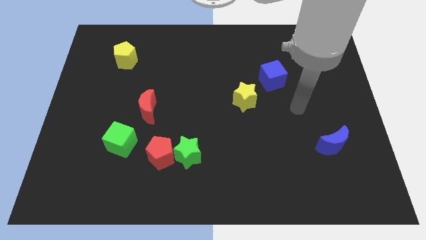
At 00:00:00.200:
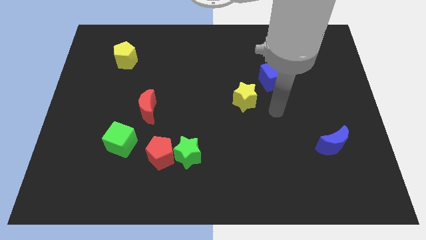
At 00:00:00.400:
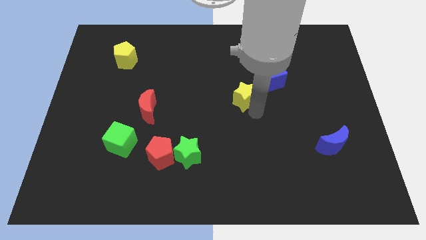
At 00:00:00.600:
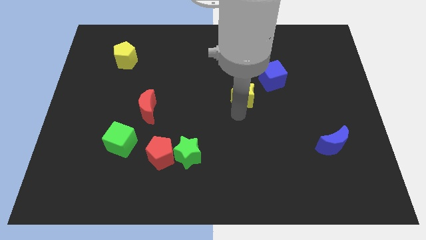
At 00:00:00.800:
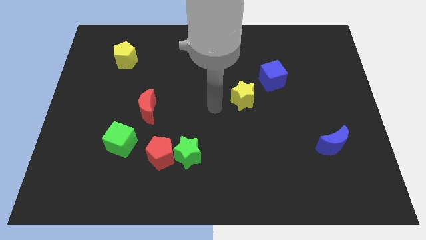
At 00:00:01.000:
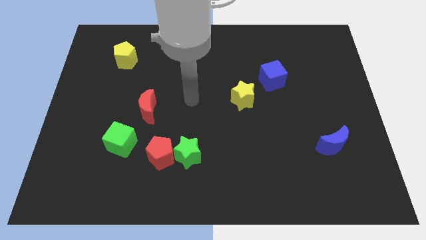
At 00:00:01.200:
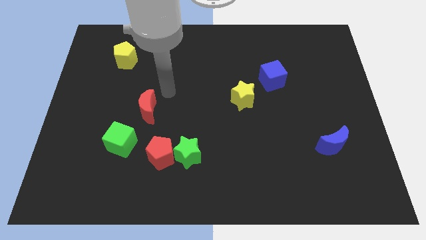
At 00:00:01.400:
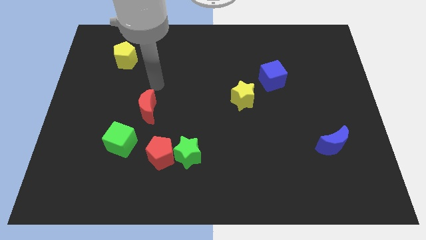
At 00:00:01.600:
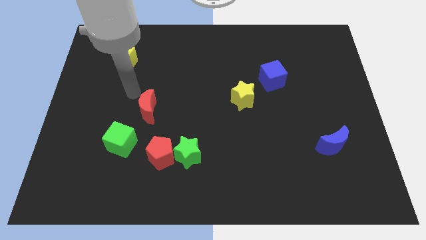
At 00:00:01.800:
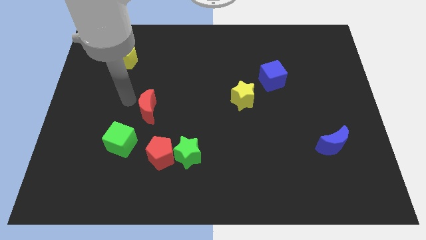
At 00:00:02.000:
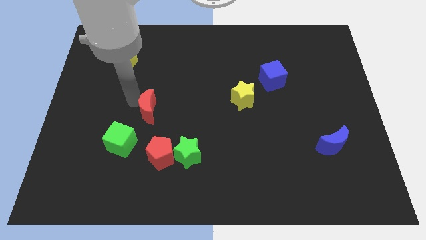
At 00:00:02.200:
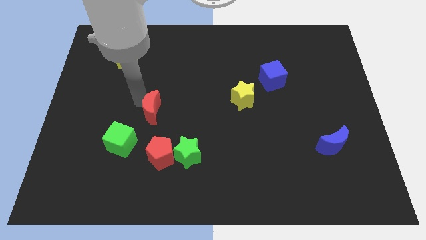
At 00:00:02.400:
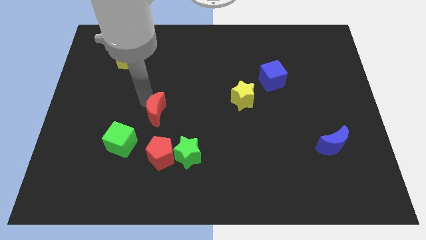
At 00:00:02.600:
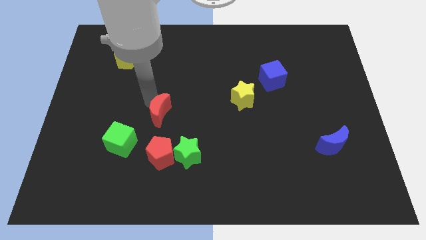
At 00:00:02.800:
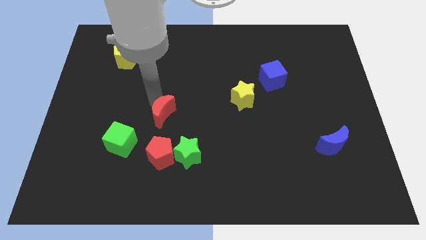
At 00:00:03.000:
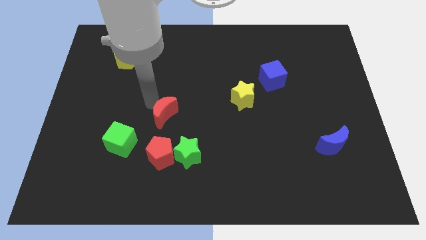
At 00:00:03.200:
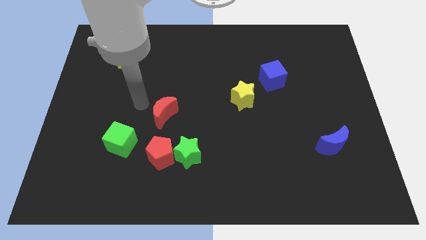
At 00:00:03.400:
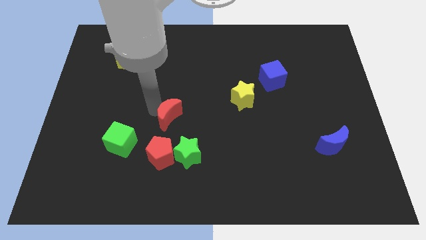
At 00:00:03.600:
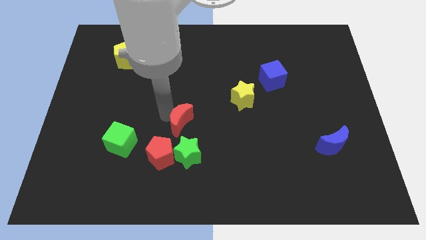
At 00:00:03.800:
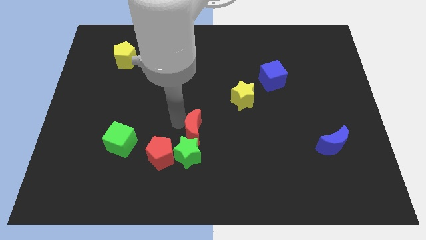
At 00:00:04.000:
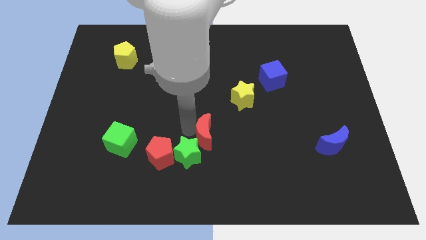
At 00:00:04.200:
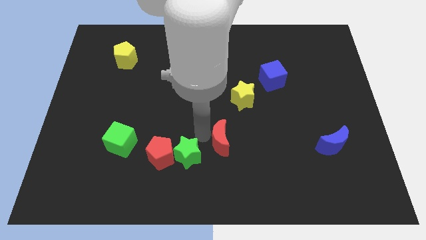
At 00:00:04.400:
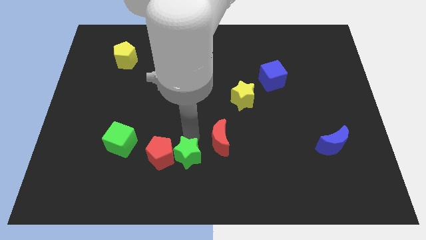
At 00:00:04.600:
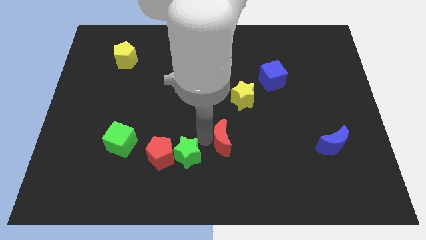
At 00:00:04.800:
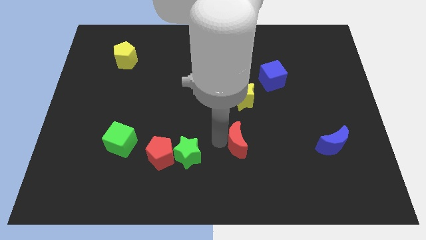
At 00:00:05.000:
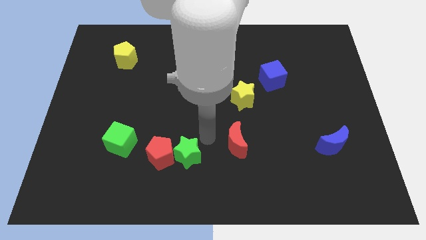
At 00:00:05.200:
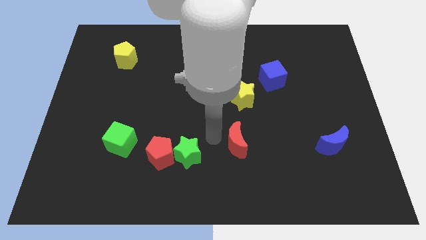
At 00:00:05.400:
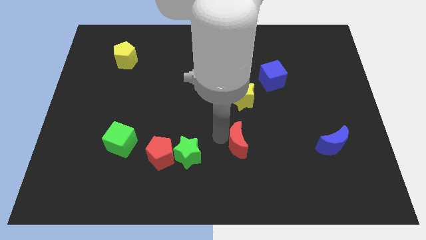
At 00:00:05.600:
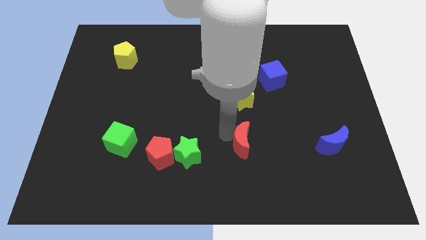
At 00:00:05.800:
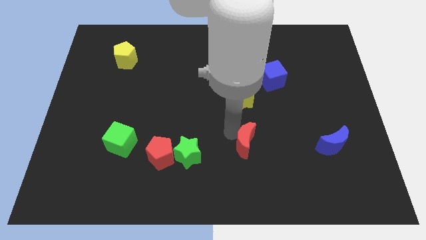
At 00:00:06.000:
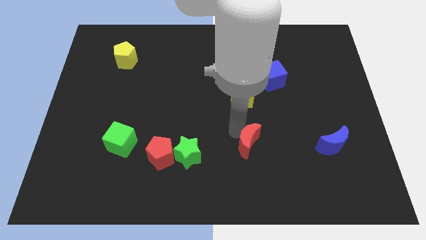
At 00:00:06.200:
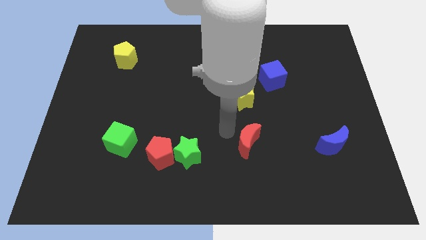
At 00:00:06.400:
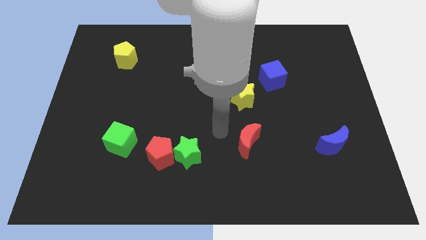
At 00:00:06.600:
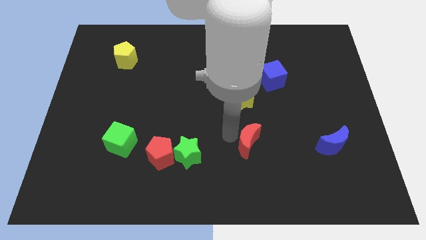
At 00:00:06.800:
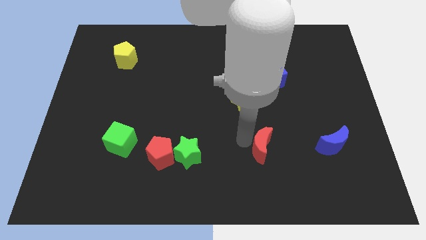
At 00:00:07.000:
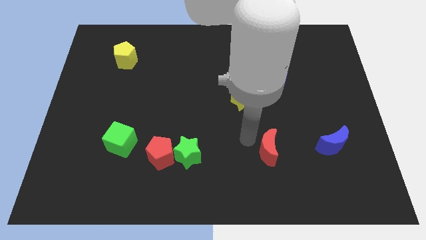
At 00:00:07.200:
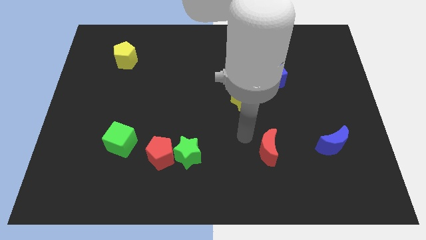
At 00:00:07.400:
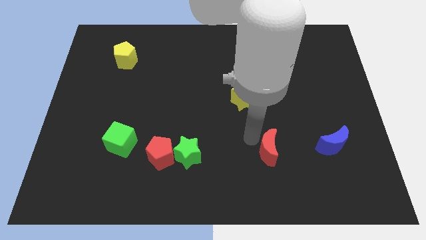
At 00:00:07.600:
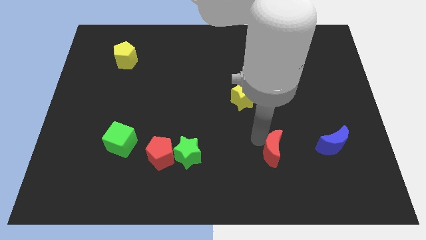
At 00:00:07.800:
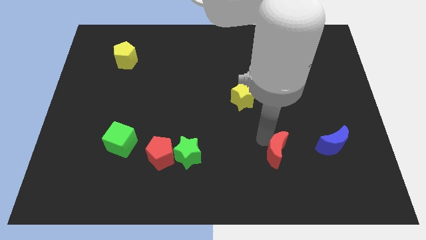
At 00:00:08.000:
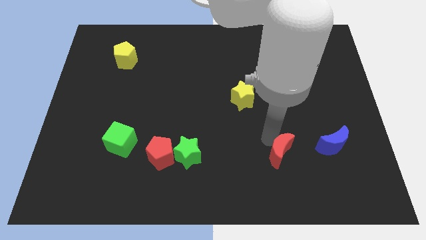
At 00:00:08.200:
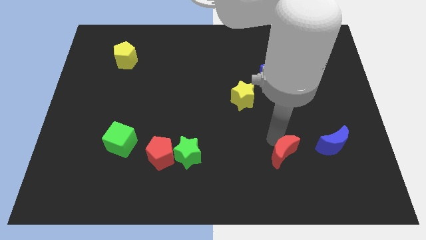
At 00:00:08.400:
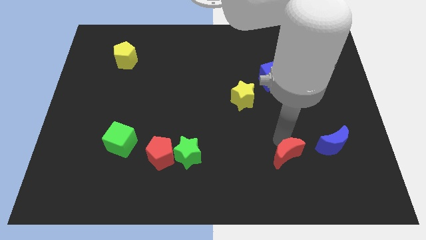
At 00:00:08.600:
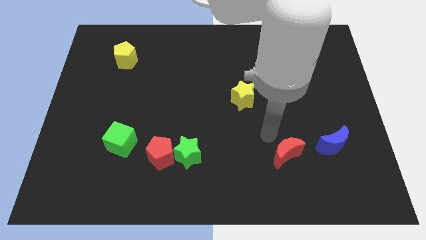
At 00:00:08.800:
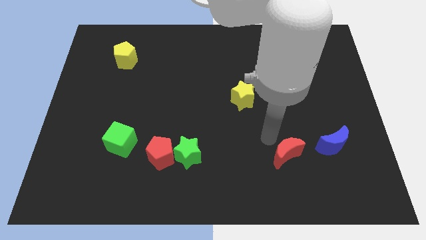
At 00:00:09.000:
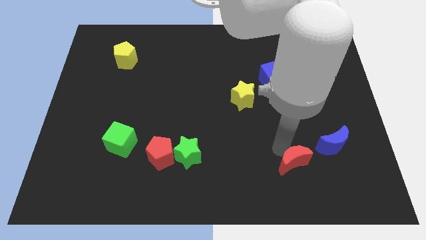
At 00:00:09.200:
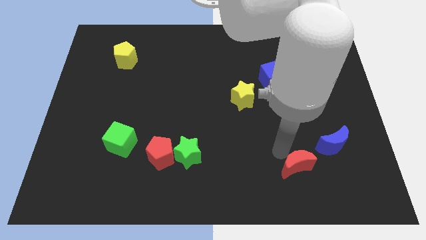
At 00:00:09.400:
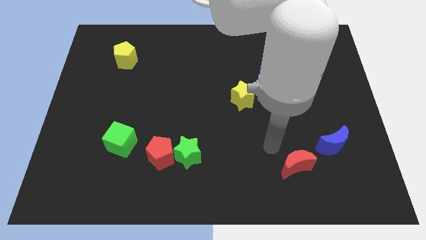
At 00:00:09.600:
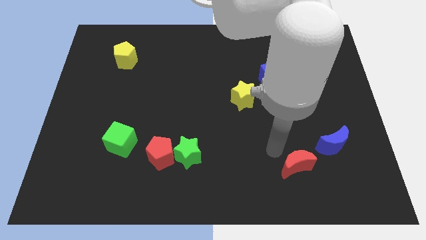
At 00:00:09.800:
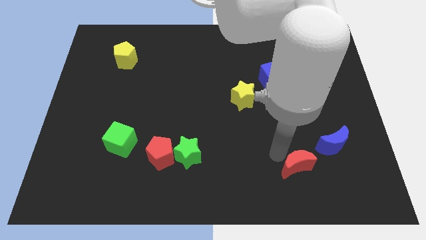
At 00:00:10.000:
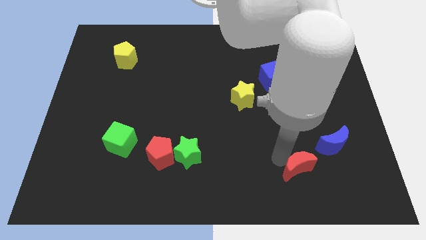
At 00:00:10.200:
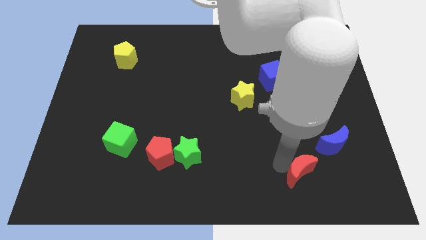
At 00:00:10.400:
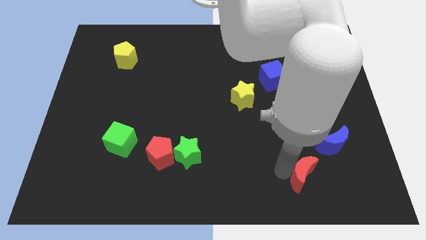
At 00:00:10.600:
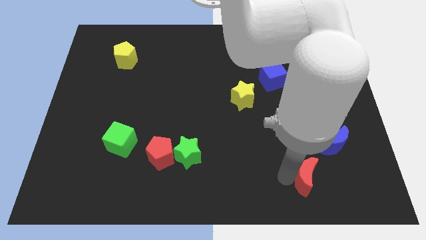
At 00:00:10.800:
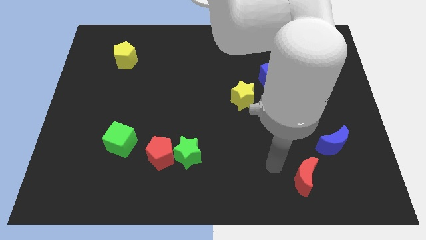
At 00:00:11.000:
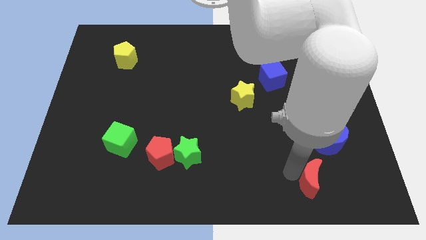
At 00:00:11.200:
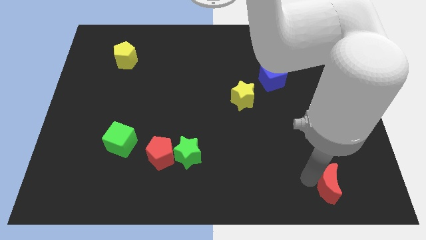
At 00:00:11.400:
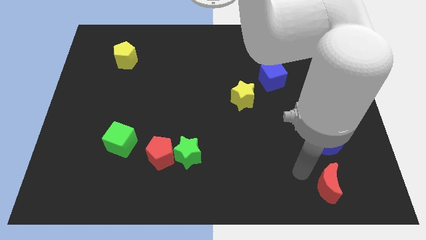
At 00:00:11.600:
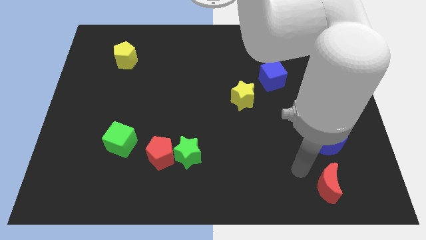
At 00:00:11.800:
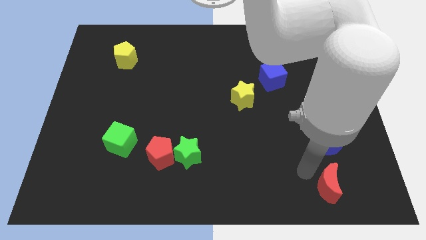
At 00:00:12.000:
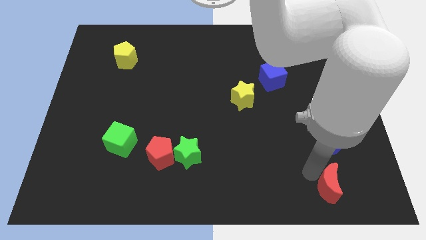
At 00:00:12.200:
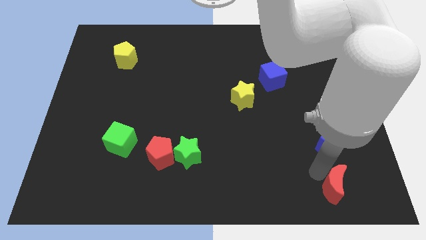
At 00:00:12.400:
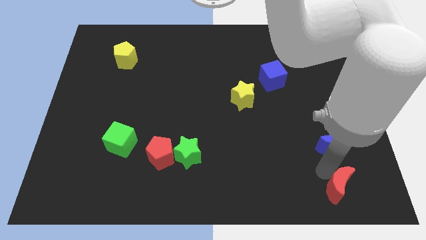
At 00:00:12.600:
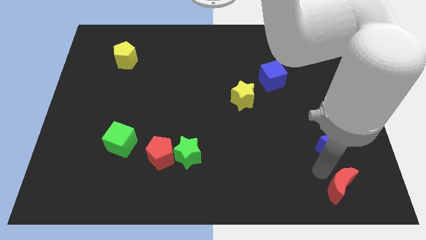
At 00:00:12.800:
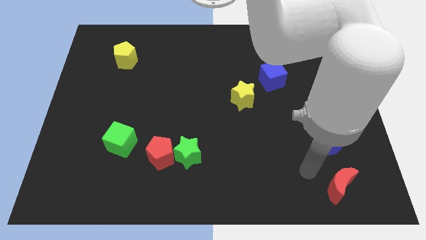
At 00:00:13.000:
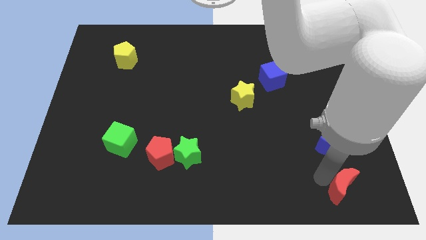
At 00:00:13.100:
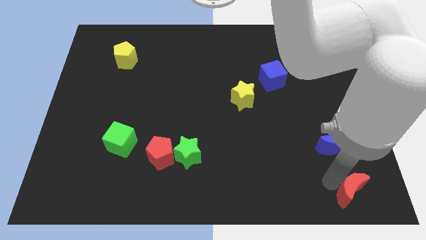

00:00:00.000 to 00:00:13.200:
move the red moon to the lower right corner
